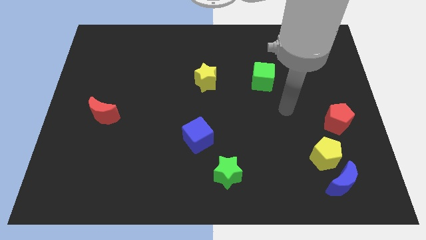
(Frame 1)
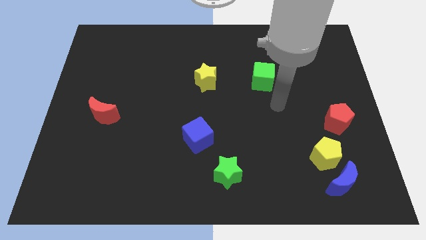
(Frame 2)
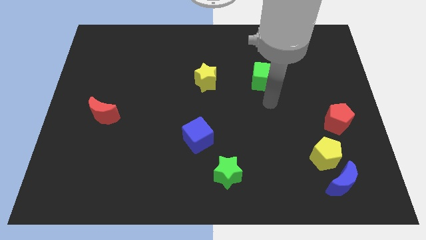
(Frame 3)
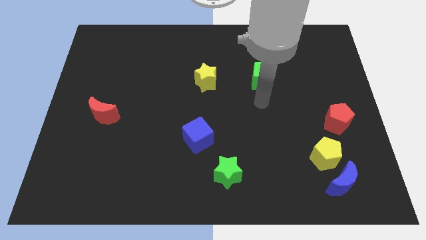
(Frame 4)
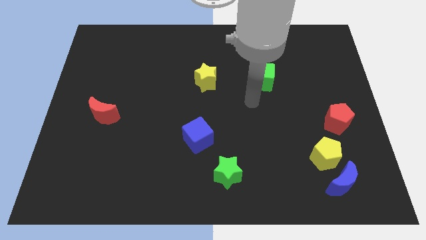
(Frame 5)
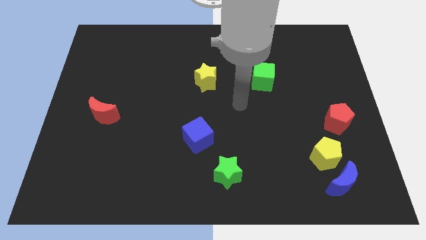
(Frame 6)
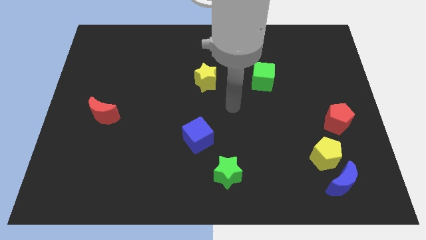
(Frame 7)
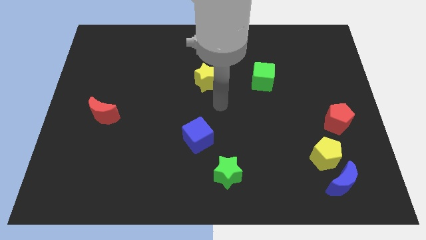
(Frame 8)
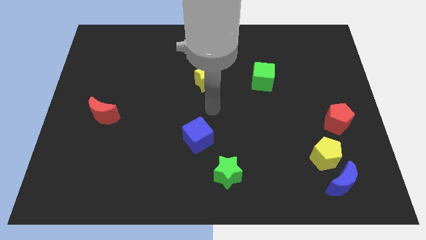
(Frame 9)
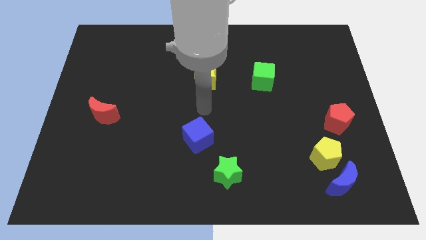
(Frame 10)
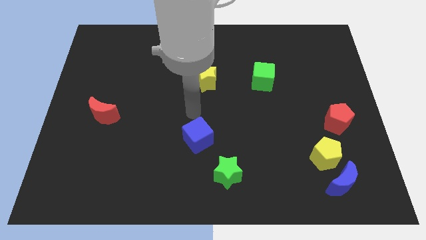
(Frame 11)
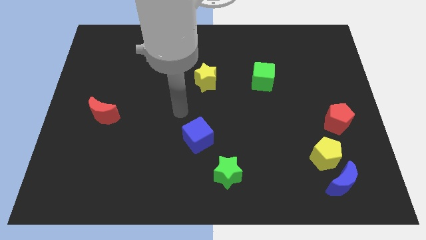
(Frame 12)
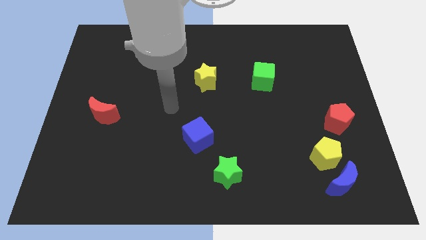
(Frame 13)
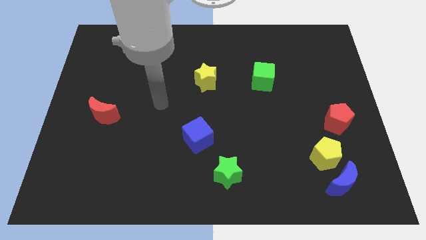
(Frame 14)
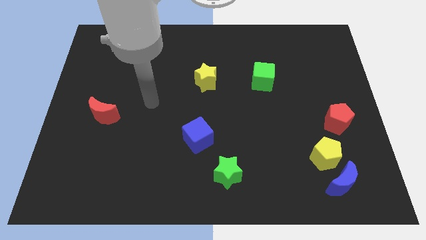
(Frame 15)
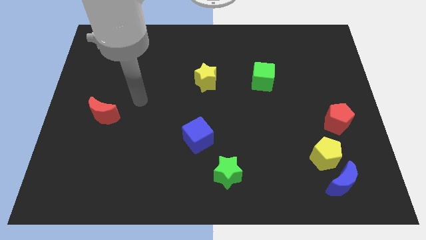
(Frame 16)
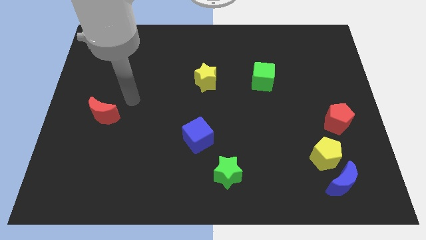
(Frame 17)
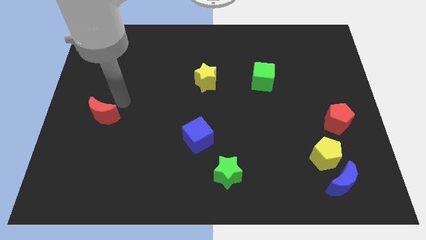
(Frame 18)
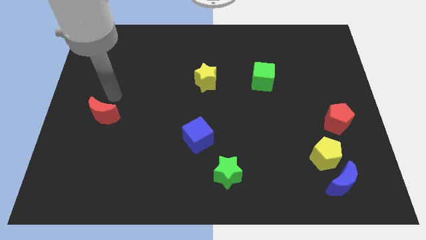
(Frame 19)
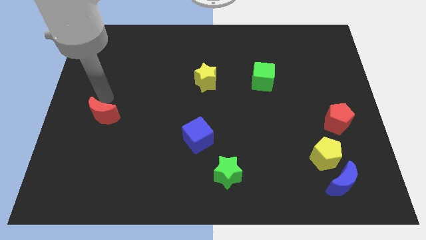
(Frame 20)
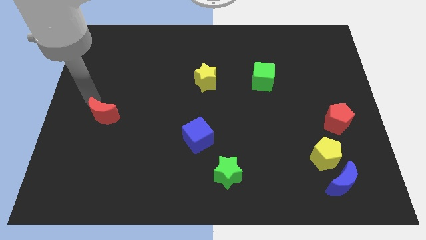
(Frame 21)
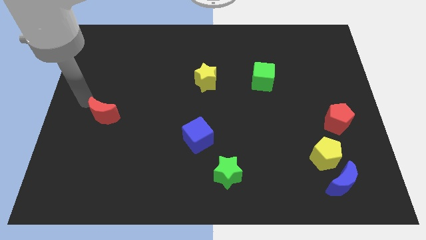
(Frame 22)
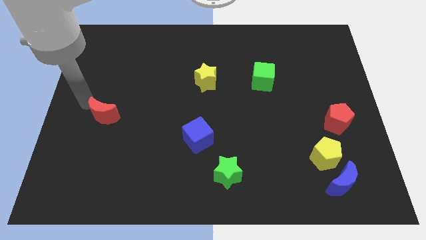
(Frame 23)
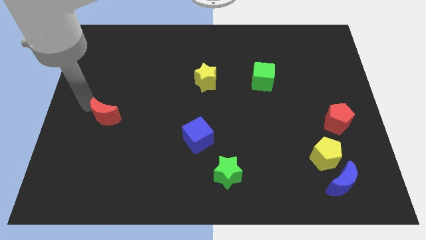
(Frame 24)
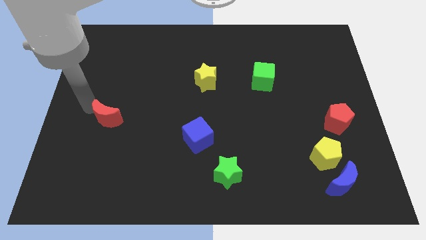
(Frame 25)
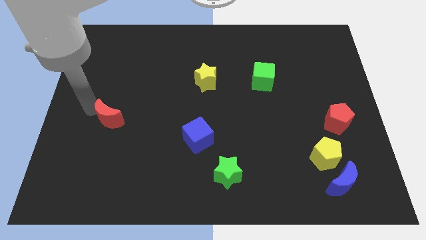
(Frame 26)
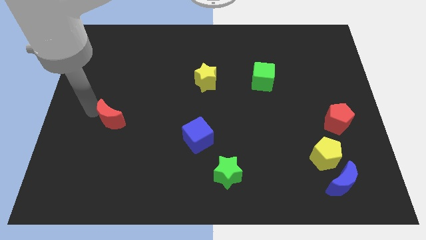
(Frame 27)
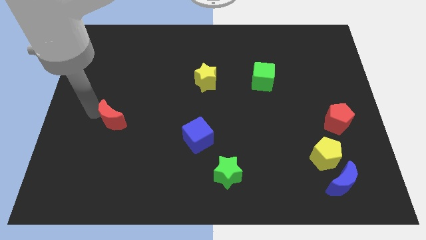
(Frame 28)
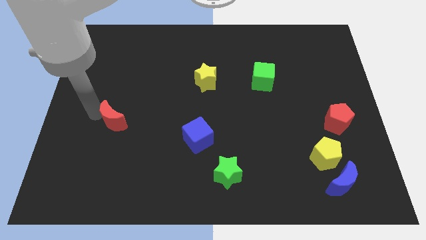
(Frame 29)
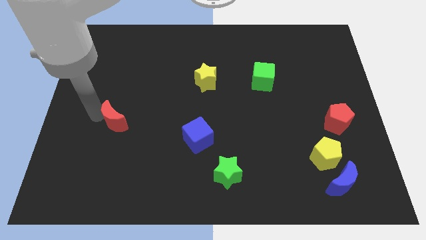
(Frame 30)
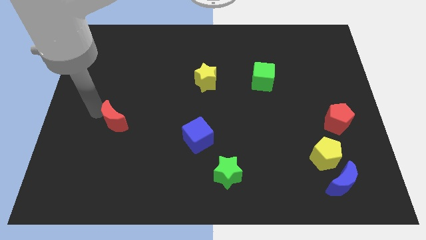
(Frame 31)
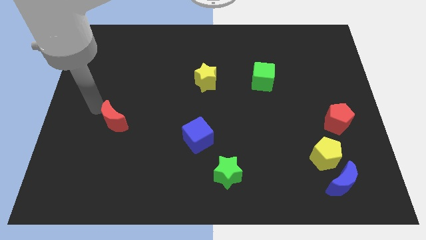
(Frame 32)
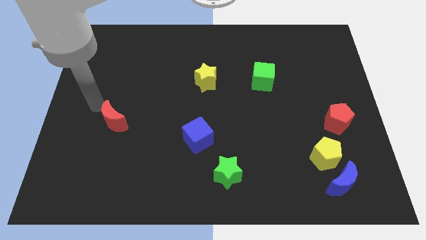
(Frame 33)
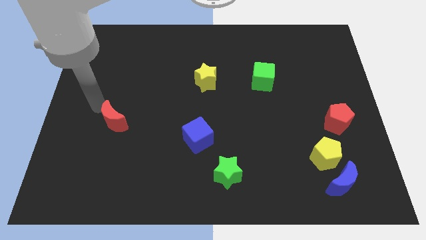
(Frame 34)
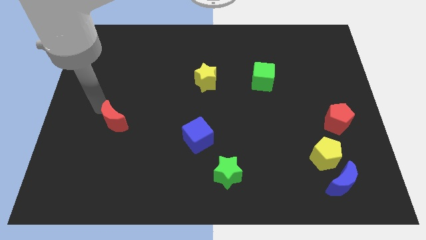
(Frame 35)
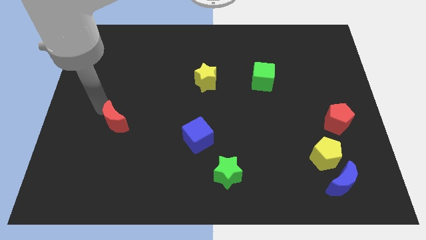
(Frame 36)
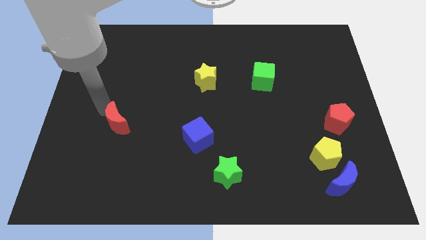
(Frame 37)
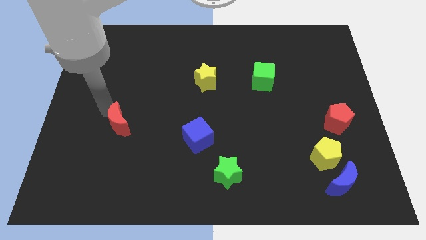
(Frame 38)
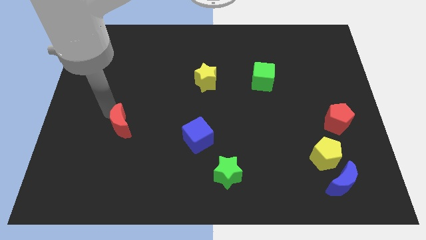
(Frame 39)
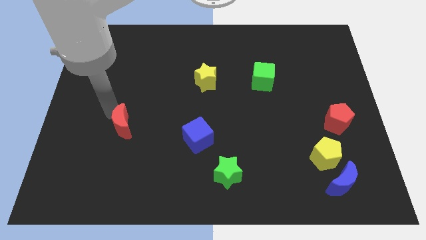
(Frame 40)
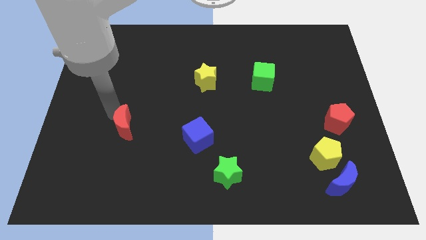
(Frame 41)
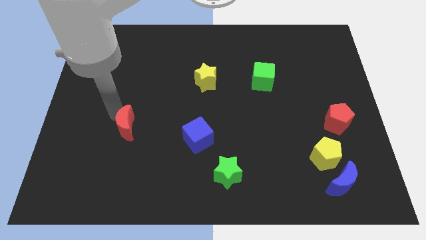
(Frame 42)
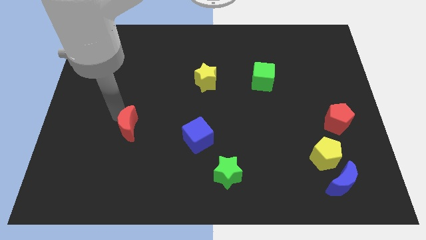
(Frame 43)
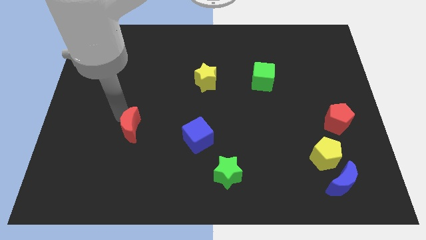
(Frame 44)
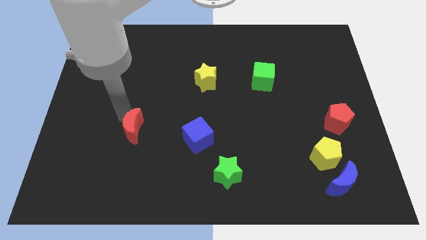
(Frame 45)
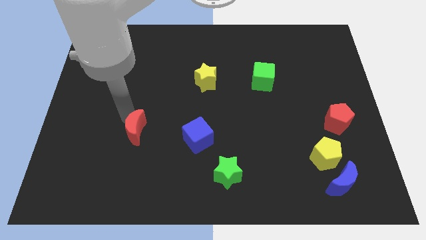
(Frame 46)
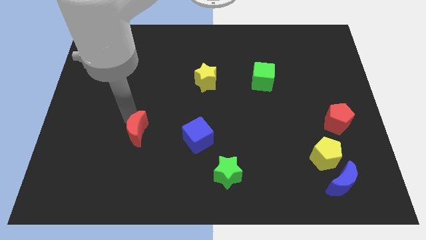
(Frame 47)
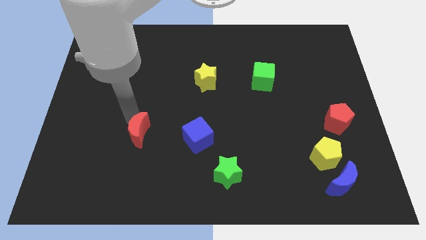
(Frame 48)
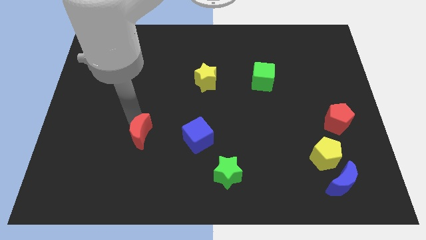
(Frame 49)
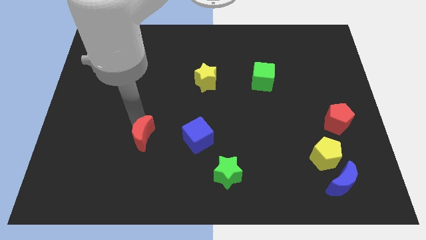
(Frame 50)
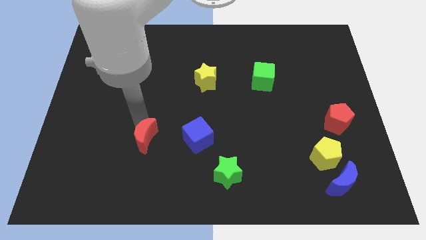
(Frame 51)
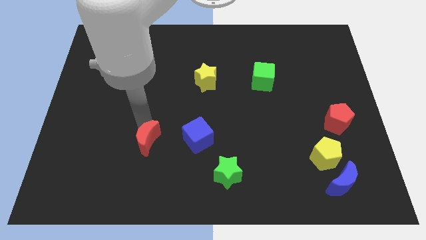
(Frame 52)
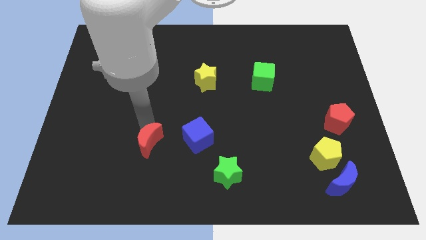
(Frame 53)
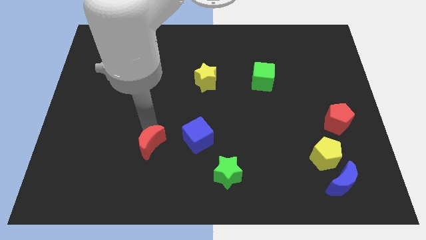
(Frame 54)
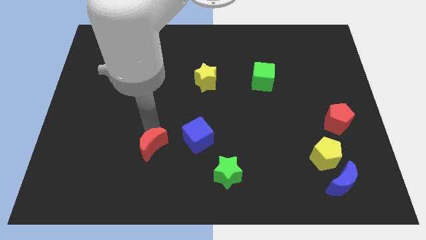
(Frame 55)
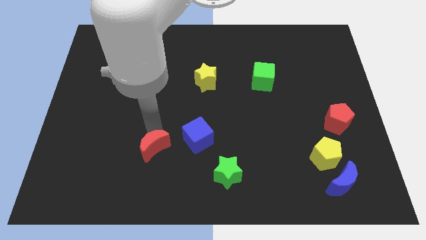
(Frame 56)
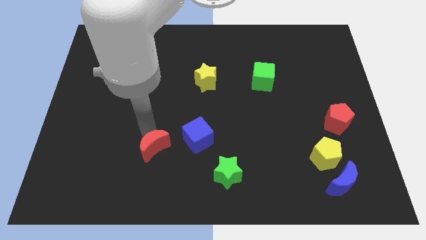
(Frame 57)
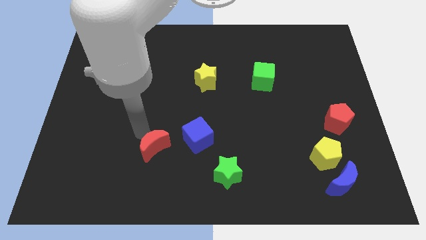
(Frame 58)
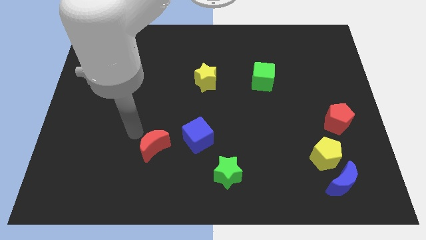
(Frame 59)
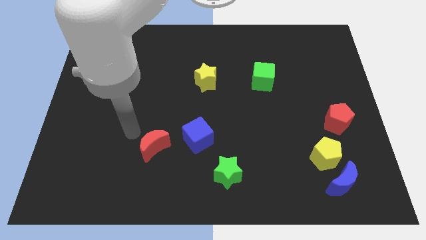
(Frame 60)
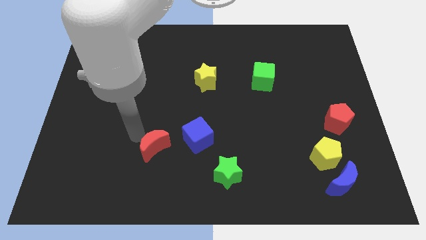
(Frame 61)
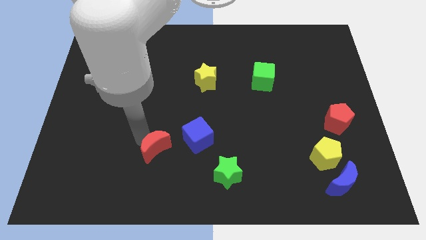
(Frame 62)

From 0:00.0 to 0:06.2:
put the red moon to the bottom left of the blue cube
